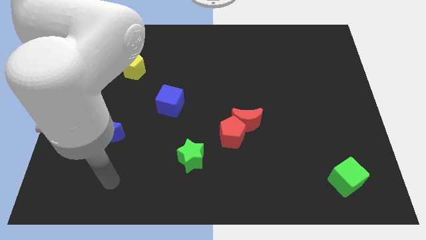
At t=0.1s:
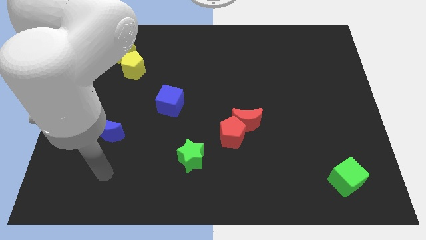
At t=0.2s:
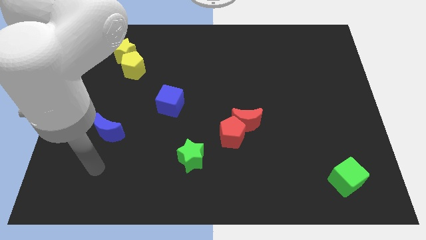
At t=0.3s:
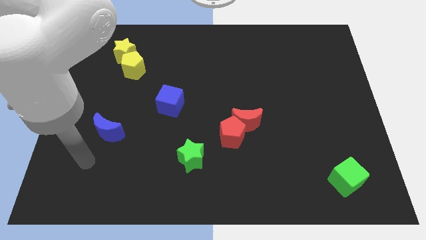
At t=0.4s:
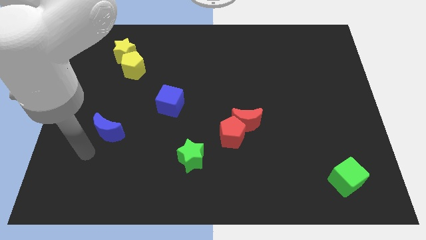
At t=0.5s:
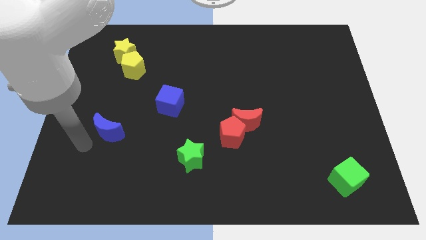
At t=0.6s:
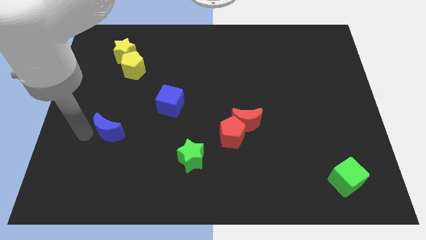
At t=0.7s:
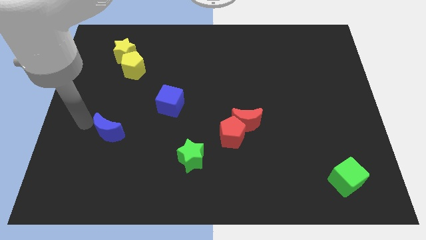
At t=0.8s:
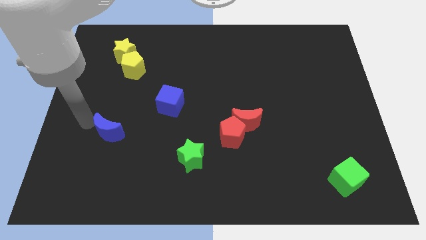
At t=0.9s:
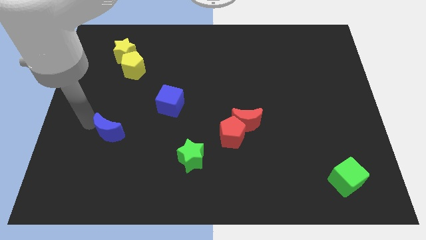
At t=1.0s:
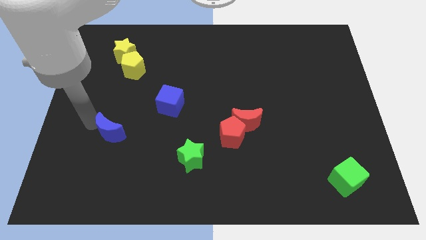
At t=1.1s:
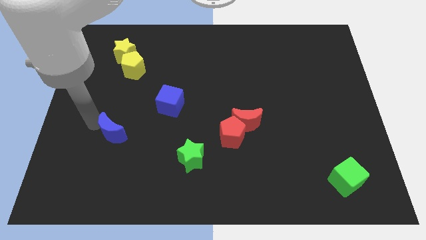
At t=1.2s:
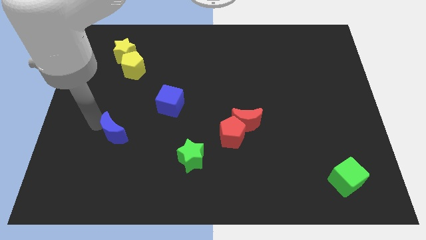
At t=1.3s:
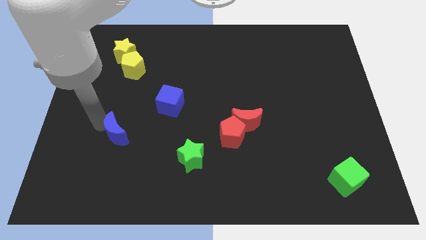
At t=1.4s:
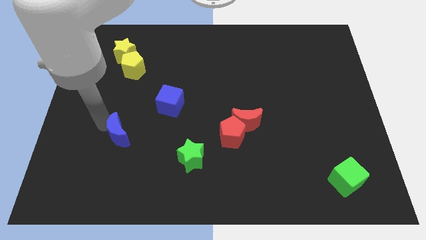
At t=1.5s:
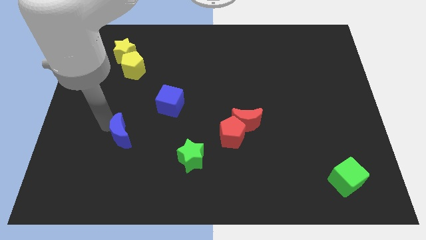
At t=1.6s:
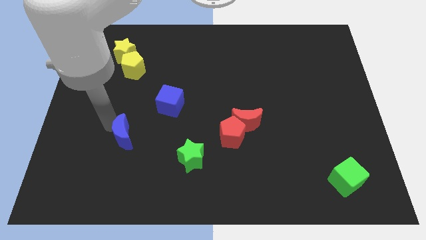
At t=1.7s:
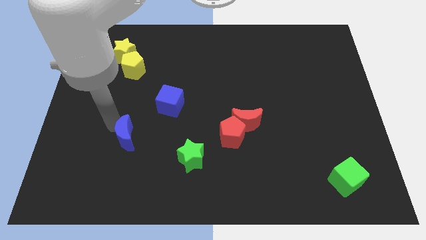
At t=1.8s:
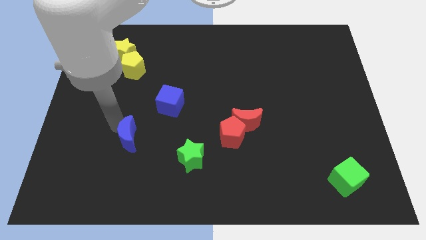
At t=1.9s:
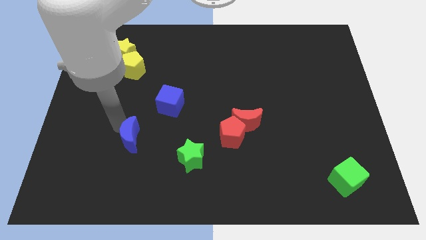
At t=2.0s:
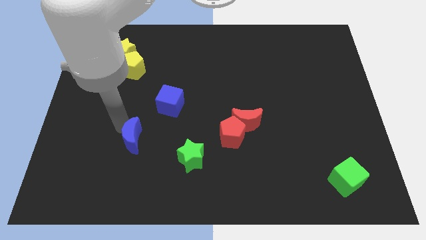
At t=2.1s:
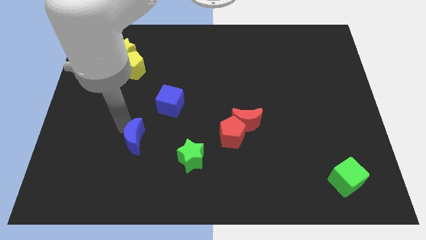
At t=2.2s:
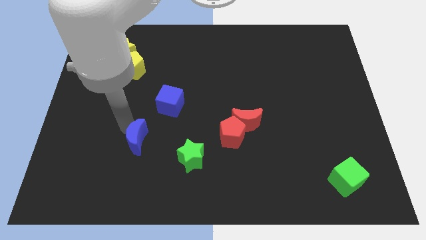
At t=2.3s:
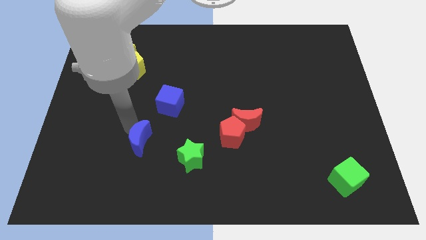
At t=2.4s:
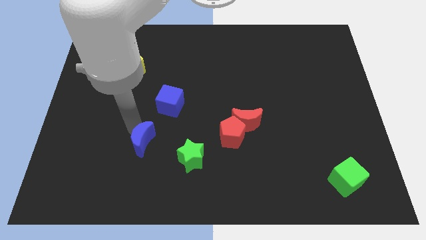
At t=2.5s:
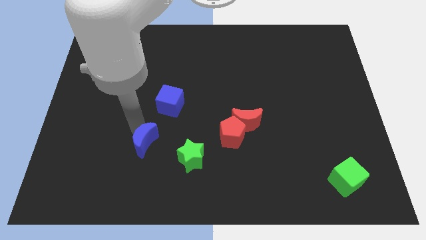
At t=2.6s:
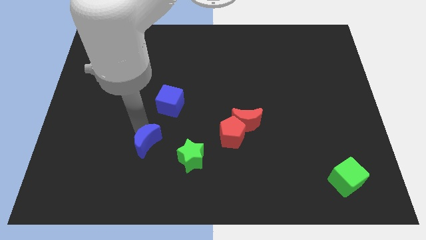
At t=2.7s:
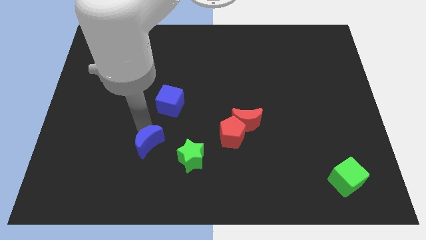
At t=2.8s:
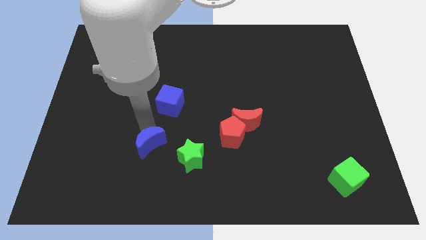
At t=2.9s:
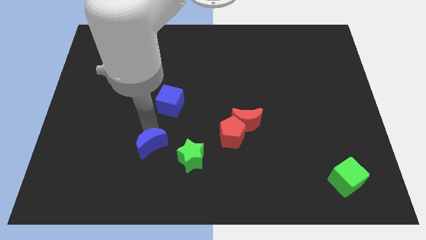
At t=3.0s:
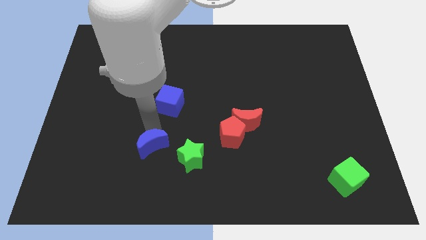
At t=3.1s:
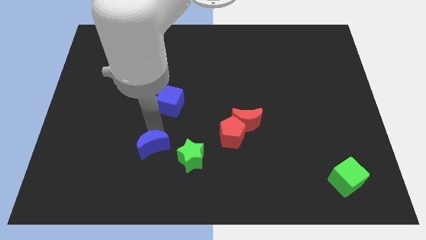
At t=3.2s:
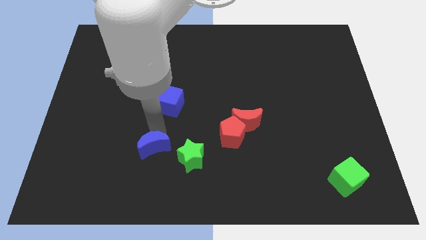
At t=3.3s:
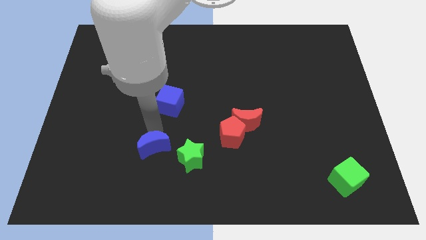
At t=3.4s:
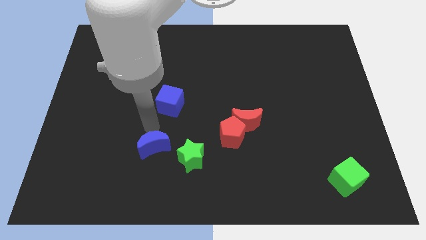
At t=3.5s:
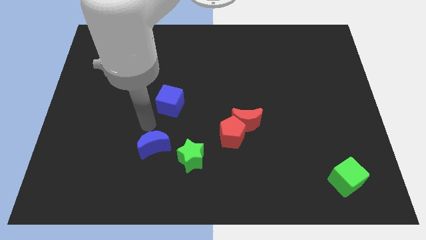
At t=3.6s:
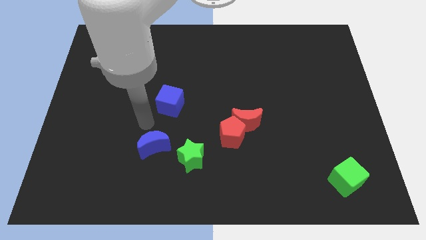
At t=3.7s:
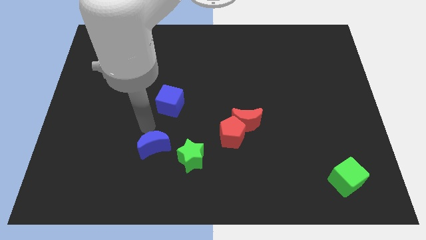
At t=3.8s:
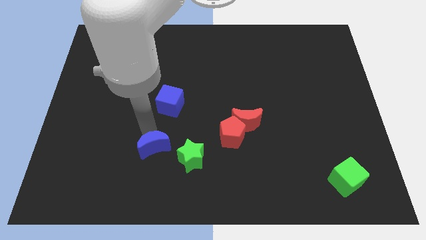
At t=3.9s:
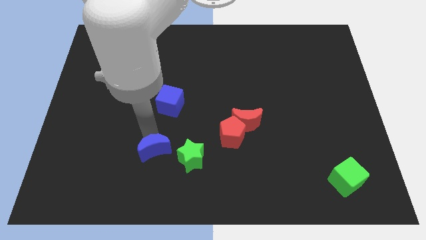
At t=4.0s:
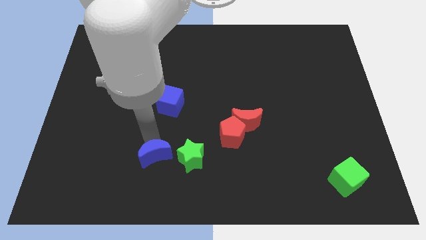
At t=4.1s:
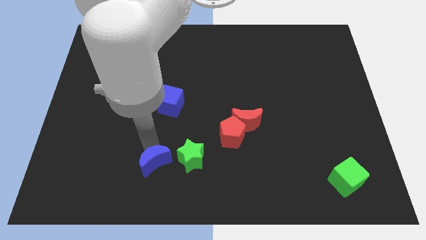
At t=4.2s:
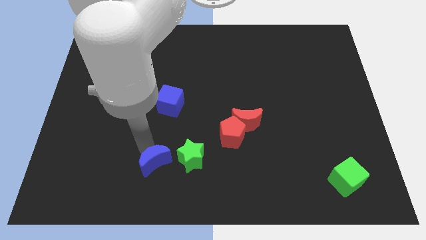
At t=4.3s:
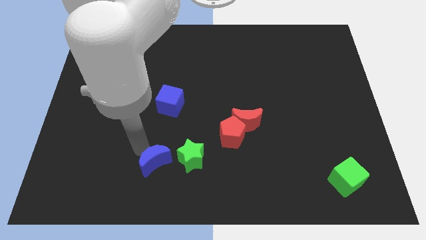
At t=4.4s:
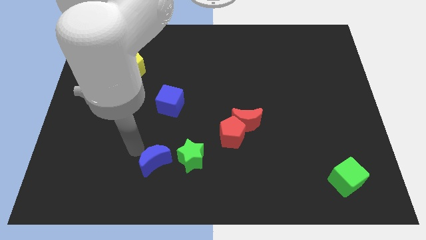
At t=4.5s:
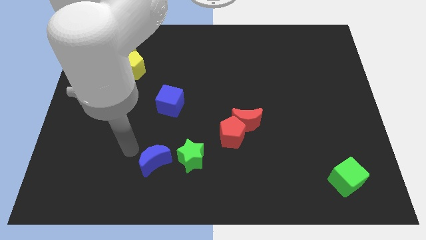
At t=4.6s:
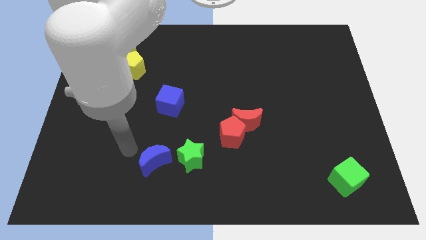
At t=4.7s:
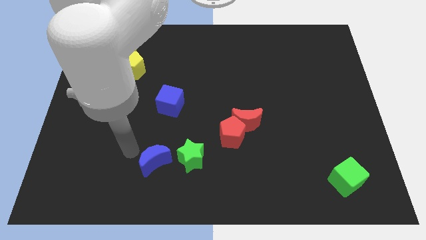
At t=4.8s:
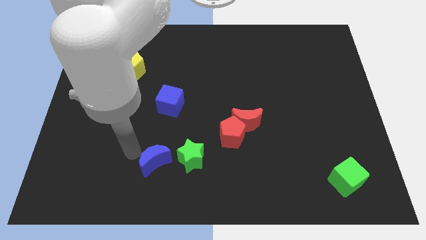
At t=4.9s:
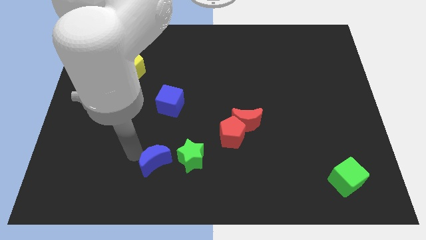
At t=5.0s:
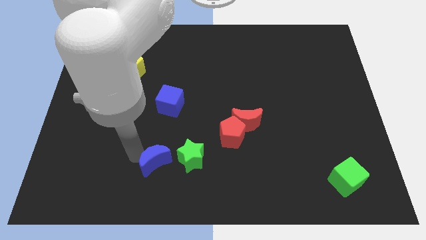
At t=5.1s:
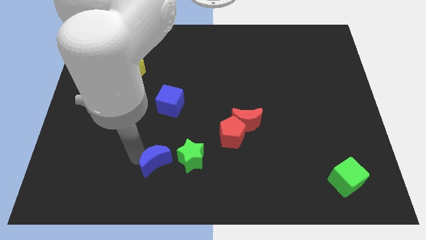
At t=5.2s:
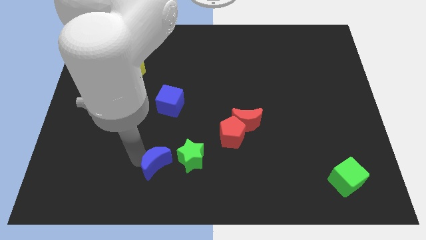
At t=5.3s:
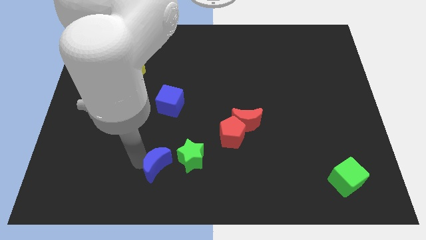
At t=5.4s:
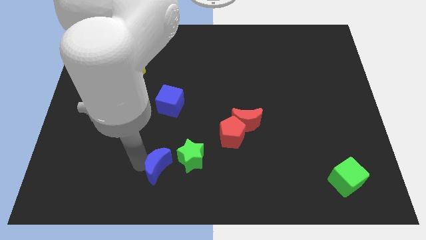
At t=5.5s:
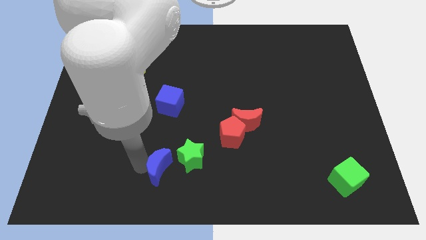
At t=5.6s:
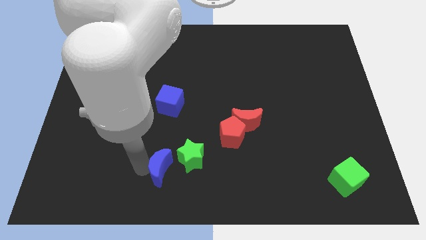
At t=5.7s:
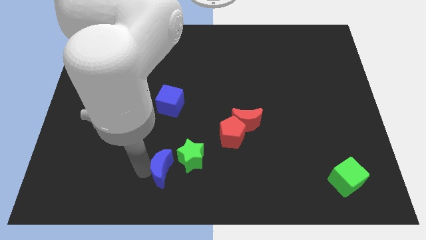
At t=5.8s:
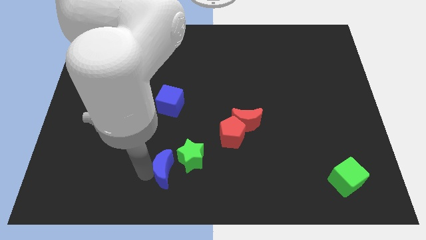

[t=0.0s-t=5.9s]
push the blue moon to the bottom side

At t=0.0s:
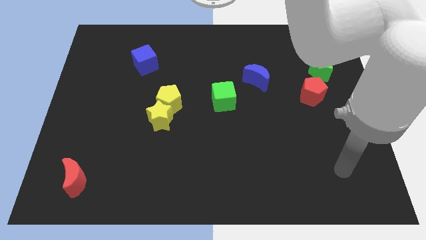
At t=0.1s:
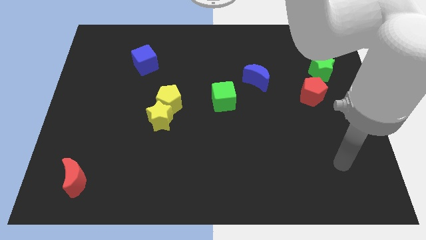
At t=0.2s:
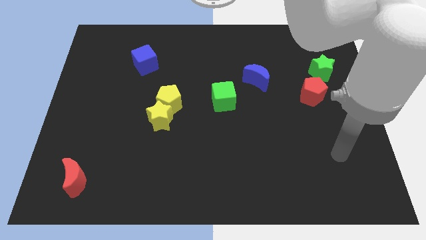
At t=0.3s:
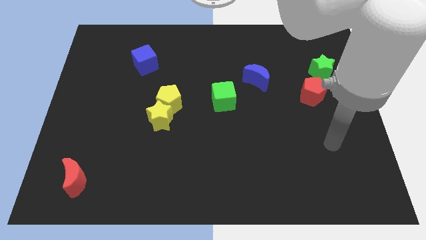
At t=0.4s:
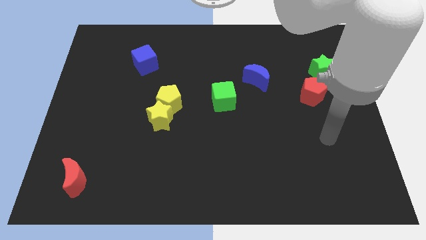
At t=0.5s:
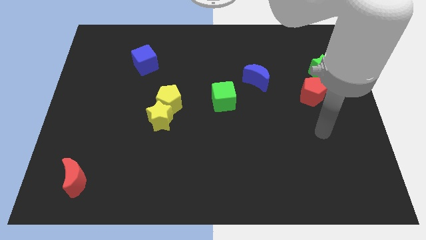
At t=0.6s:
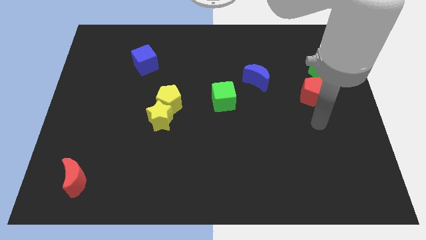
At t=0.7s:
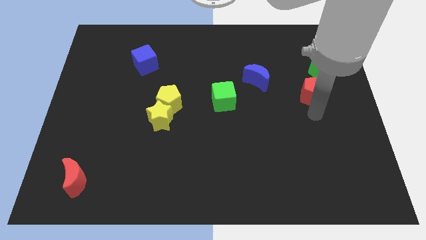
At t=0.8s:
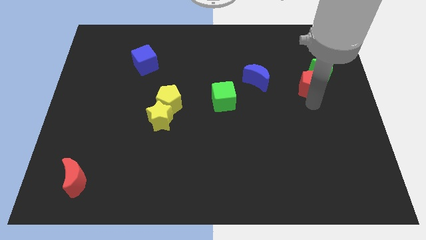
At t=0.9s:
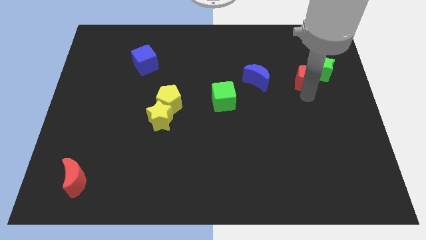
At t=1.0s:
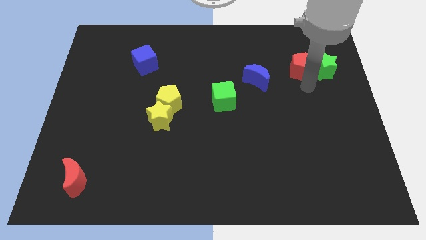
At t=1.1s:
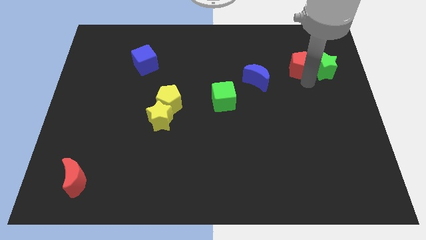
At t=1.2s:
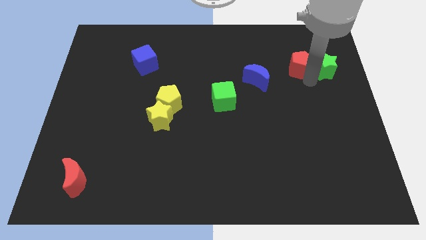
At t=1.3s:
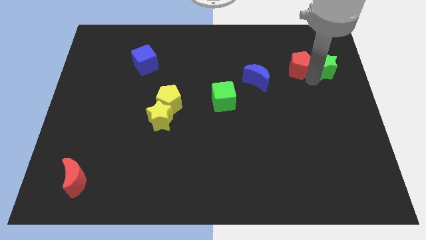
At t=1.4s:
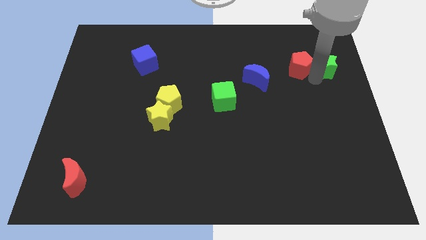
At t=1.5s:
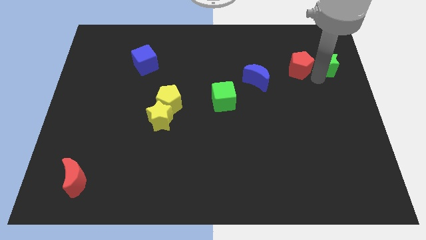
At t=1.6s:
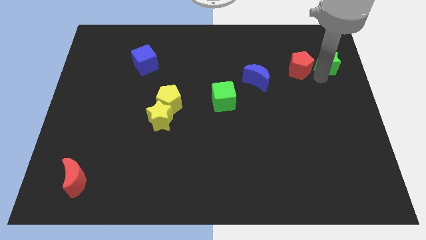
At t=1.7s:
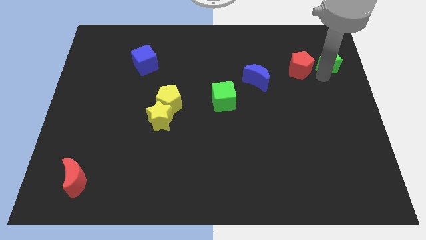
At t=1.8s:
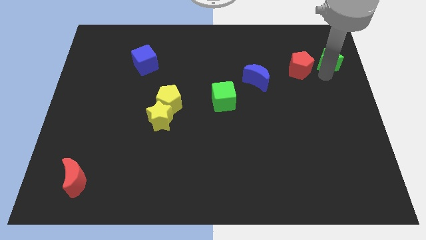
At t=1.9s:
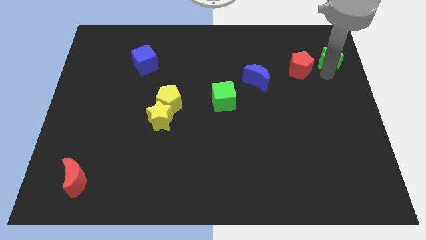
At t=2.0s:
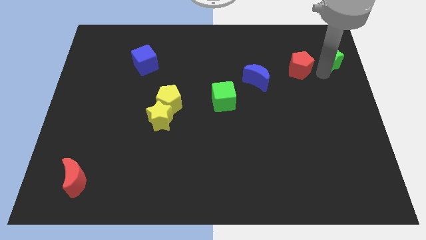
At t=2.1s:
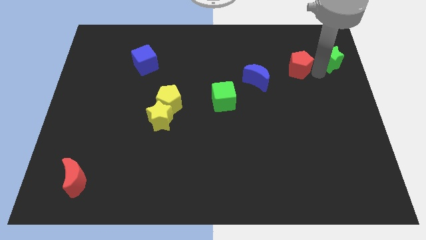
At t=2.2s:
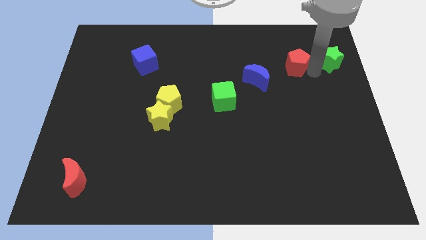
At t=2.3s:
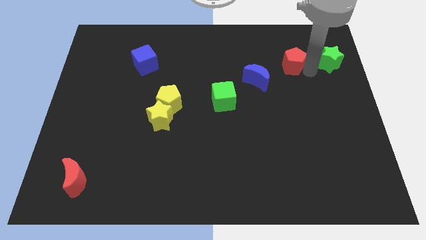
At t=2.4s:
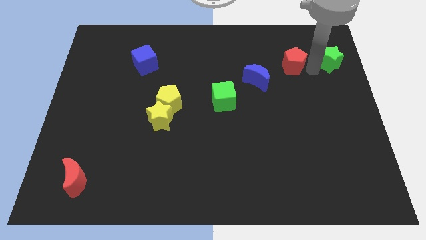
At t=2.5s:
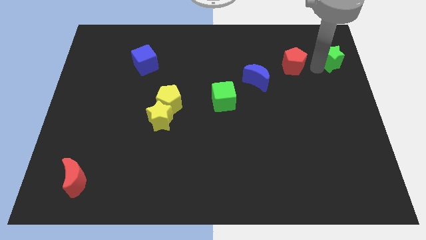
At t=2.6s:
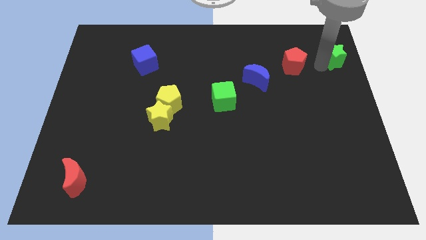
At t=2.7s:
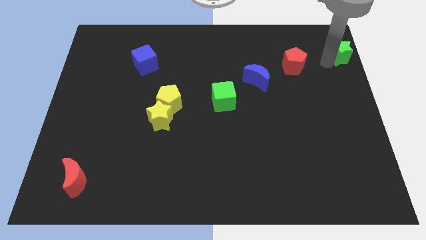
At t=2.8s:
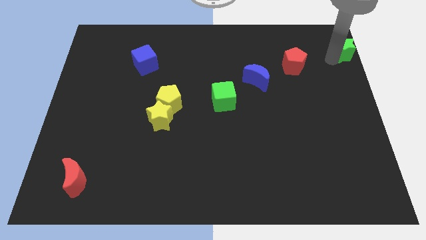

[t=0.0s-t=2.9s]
put the green star to the top right of the board
